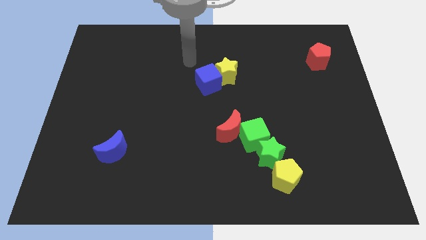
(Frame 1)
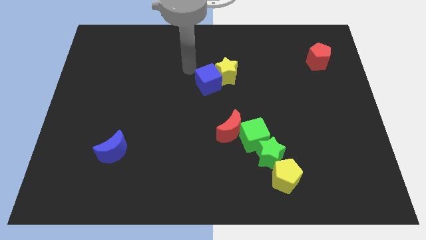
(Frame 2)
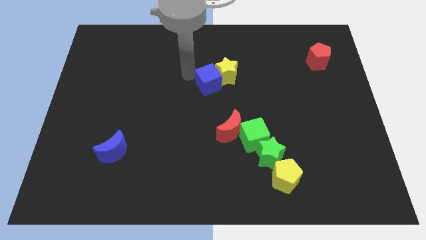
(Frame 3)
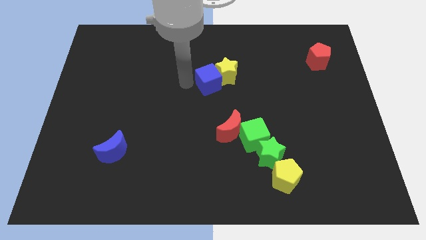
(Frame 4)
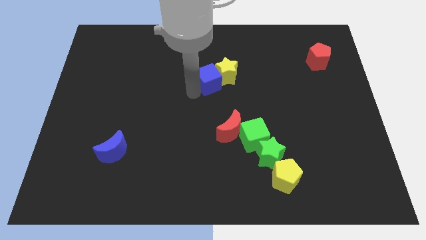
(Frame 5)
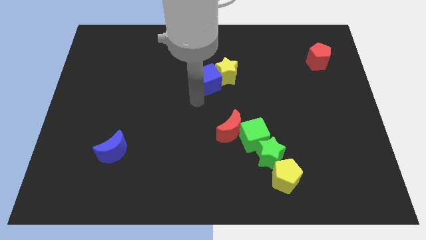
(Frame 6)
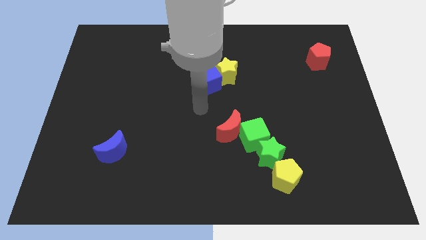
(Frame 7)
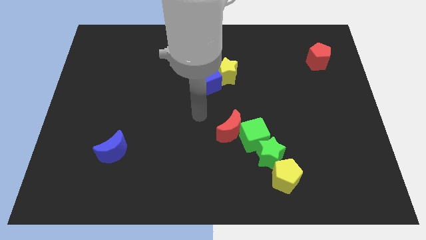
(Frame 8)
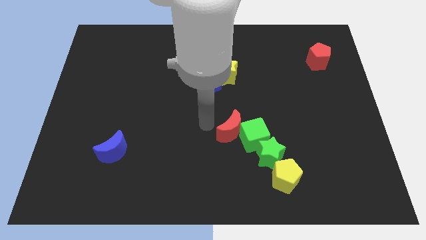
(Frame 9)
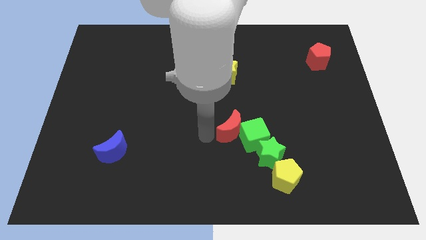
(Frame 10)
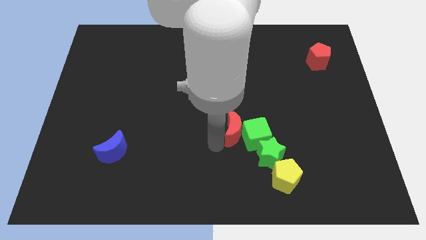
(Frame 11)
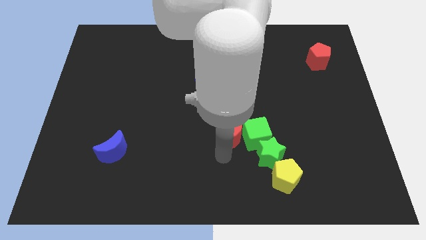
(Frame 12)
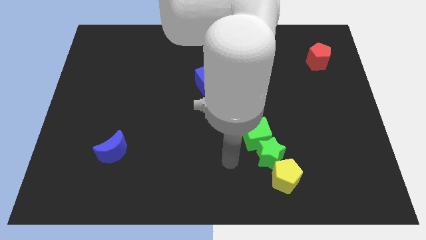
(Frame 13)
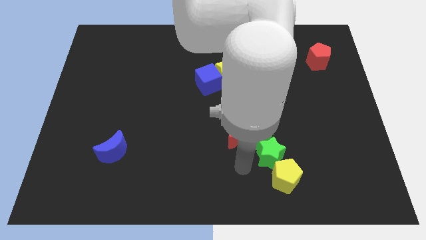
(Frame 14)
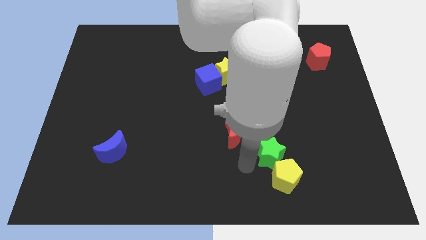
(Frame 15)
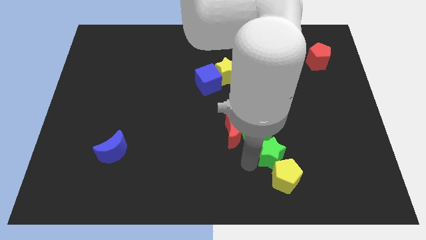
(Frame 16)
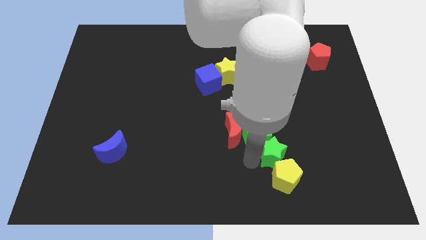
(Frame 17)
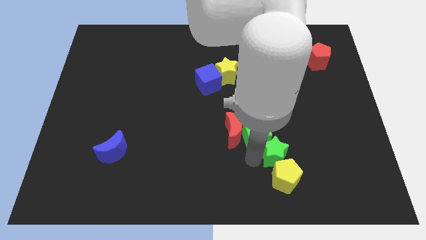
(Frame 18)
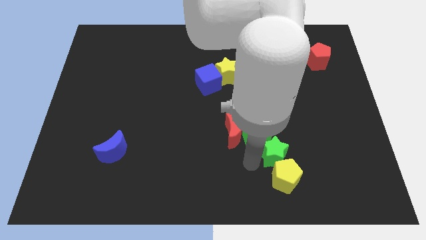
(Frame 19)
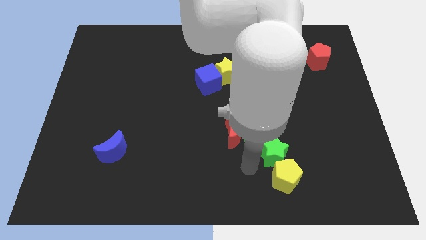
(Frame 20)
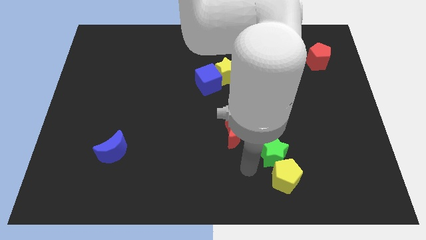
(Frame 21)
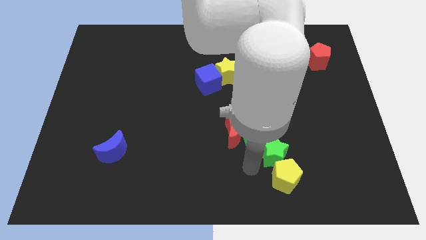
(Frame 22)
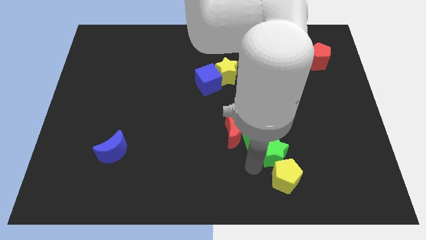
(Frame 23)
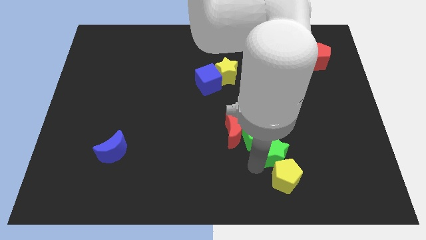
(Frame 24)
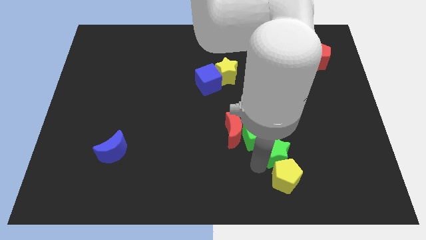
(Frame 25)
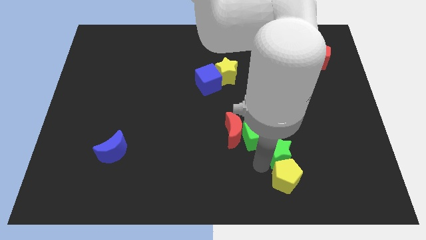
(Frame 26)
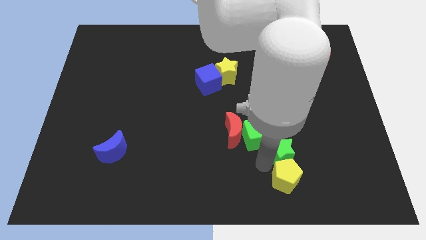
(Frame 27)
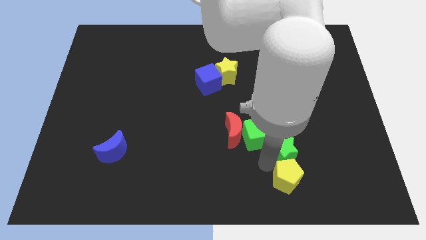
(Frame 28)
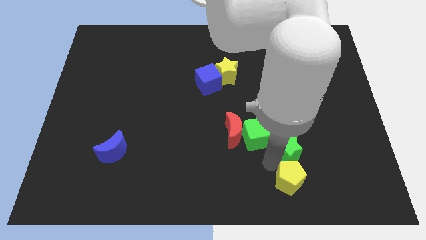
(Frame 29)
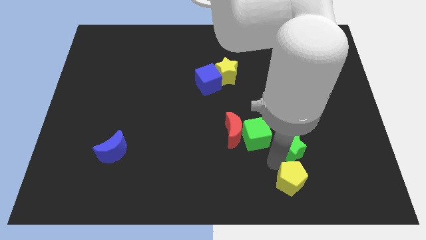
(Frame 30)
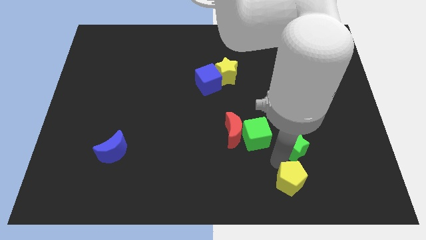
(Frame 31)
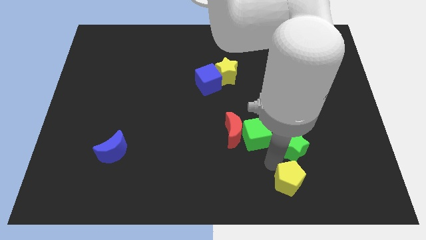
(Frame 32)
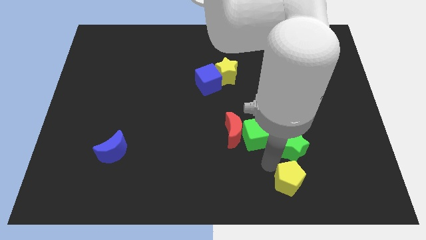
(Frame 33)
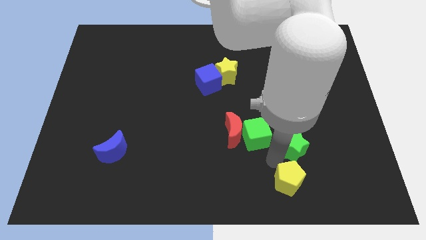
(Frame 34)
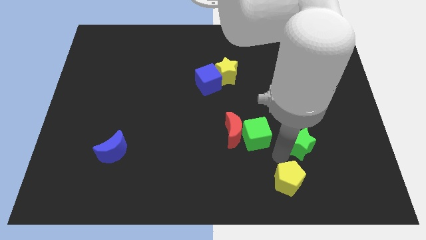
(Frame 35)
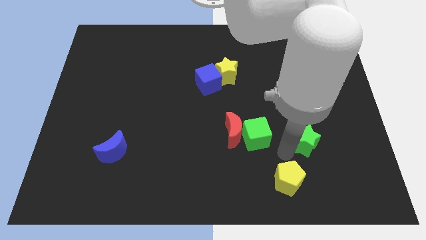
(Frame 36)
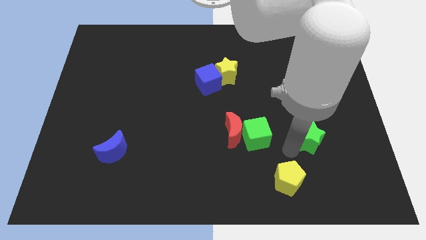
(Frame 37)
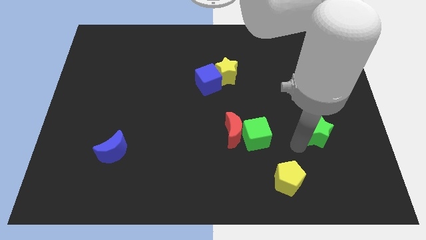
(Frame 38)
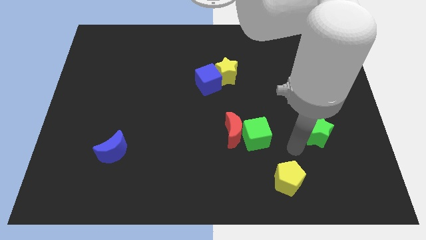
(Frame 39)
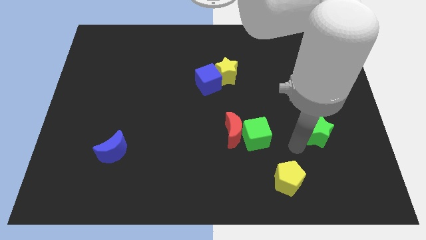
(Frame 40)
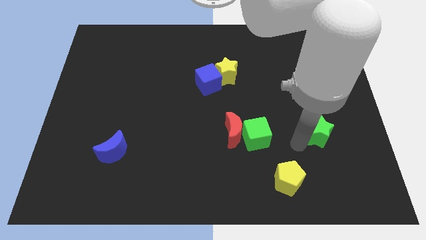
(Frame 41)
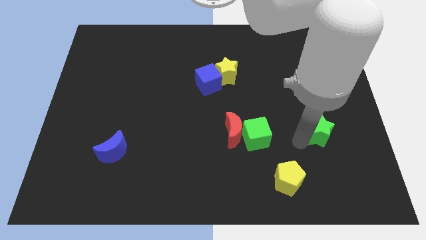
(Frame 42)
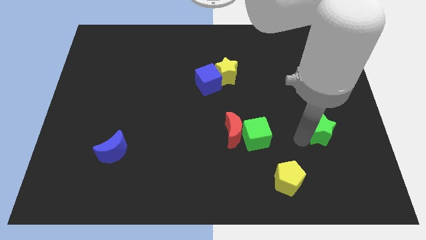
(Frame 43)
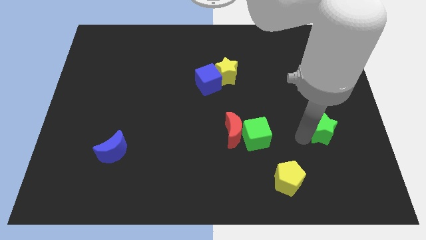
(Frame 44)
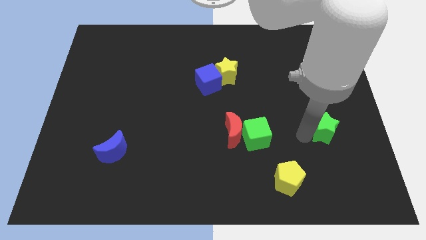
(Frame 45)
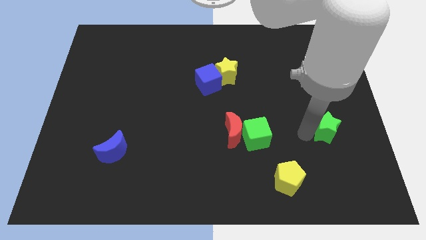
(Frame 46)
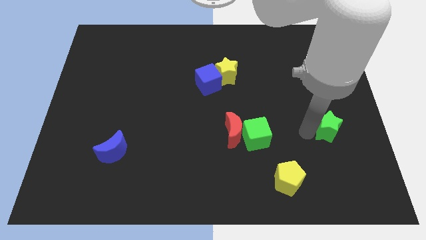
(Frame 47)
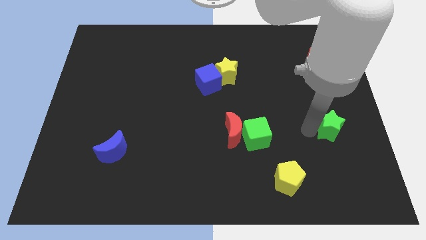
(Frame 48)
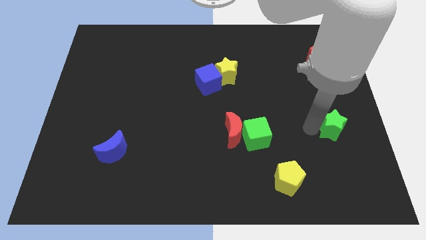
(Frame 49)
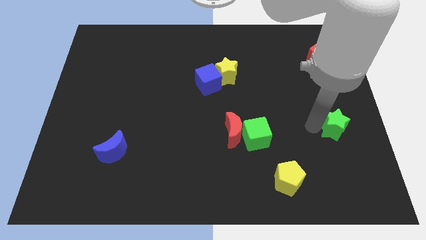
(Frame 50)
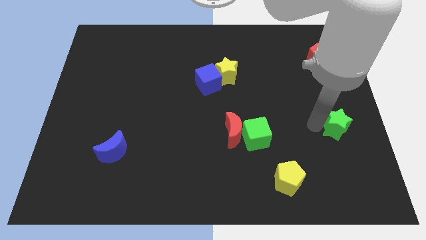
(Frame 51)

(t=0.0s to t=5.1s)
move the green star to the center right

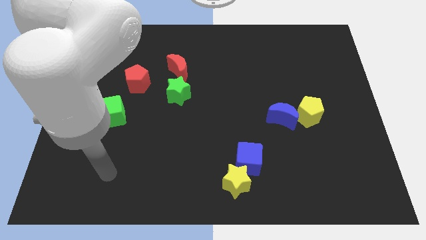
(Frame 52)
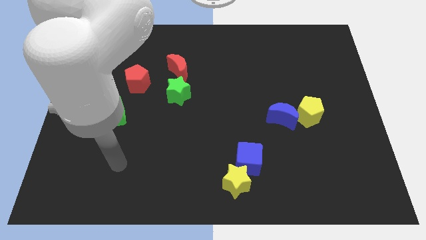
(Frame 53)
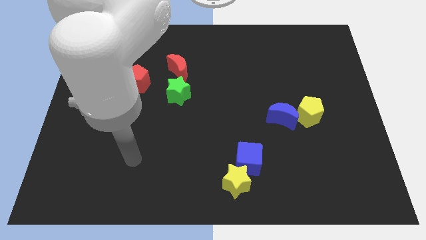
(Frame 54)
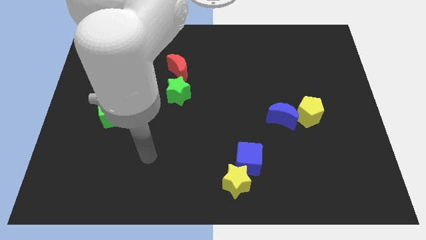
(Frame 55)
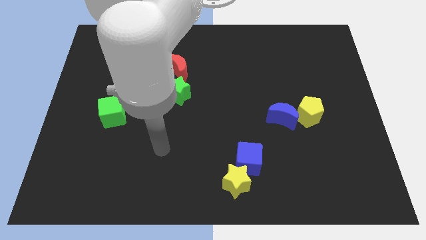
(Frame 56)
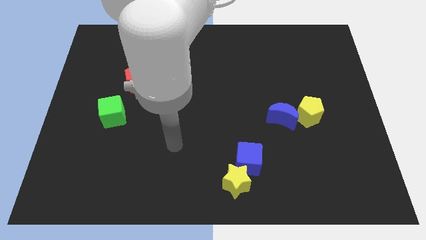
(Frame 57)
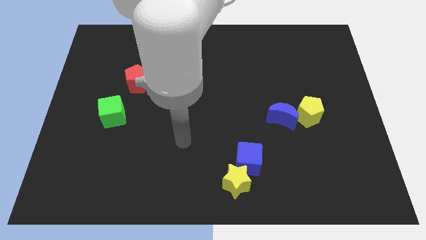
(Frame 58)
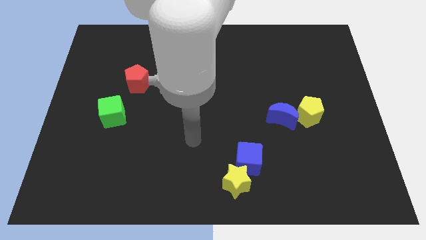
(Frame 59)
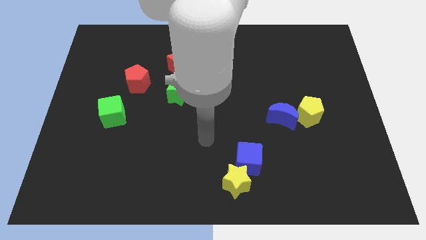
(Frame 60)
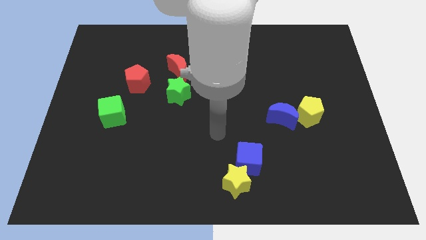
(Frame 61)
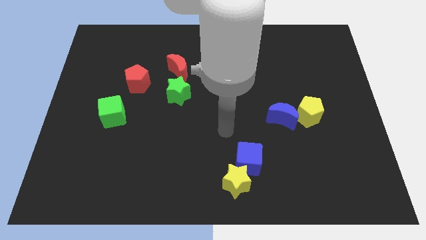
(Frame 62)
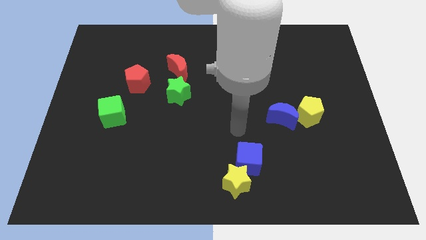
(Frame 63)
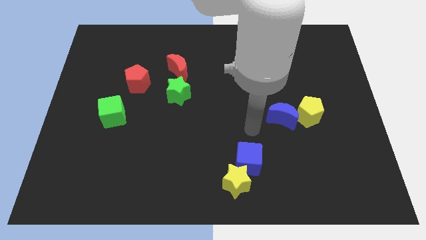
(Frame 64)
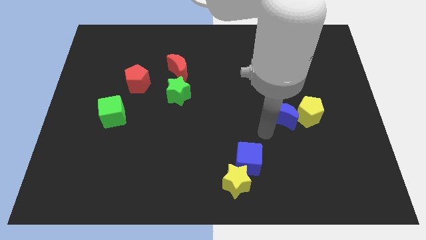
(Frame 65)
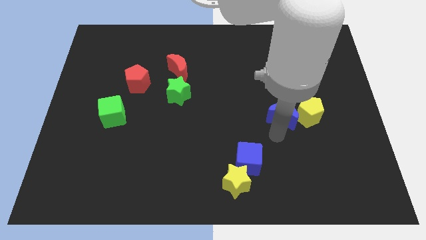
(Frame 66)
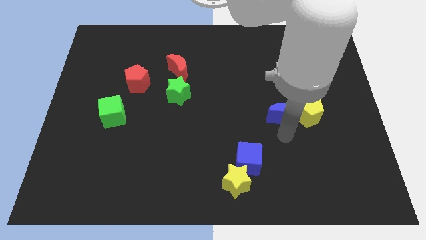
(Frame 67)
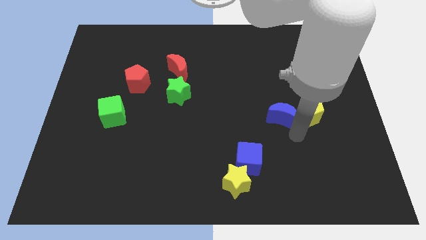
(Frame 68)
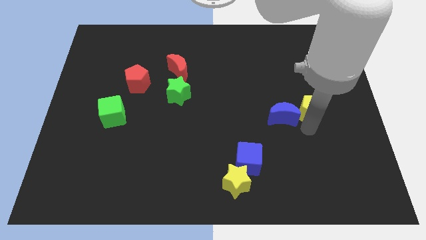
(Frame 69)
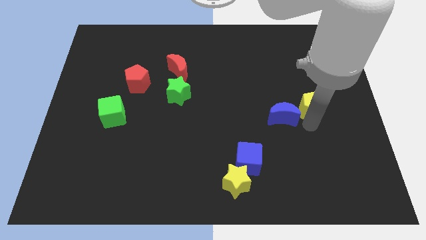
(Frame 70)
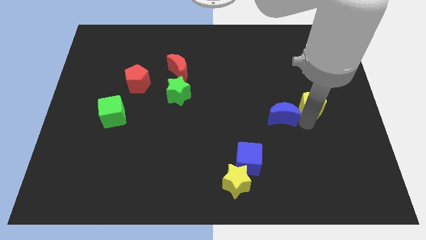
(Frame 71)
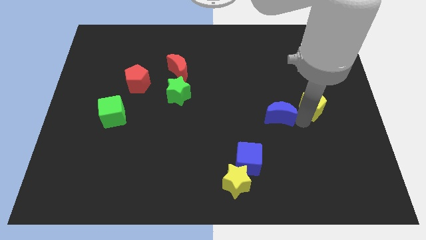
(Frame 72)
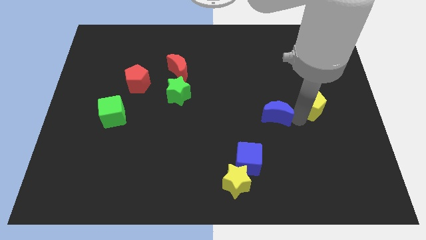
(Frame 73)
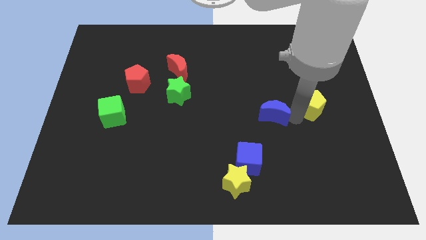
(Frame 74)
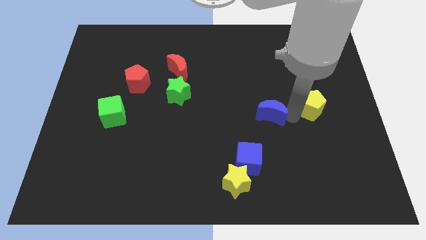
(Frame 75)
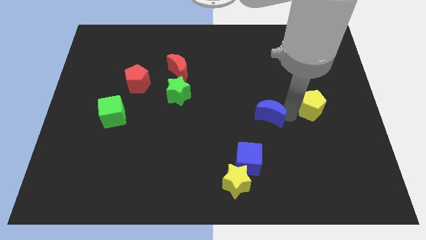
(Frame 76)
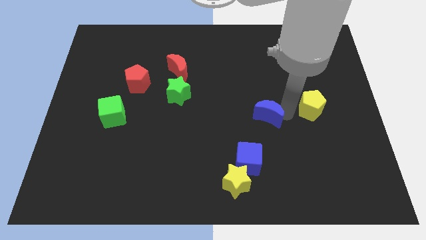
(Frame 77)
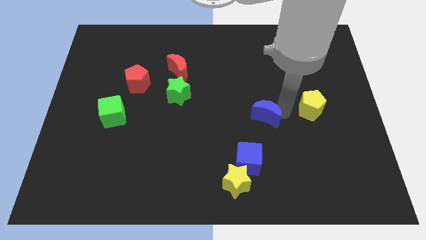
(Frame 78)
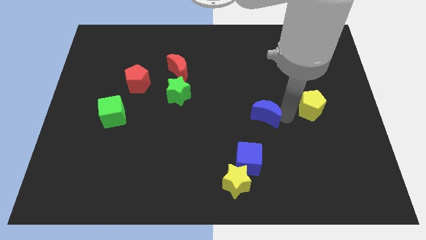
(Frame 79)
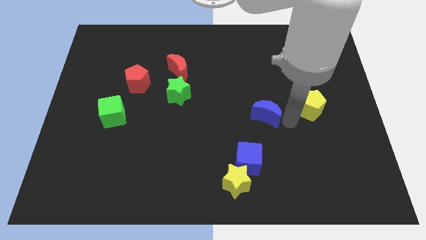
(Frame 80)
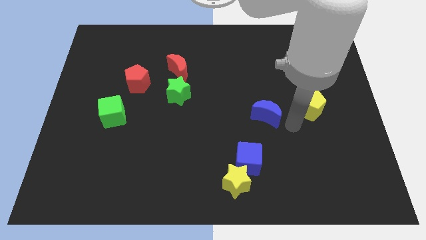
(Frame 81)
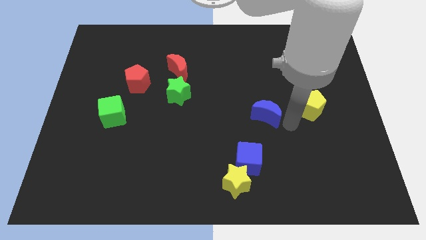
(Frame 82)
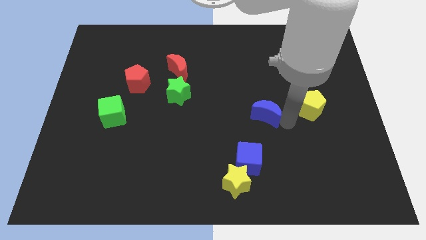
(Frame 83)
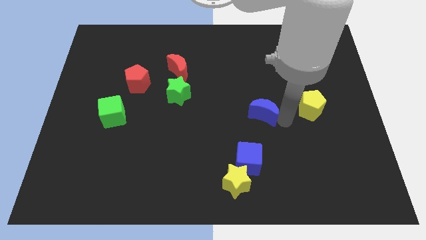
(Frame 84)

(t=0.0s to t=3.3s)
move the blue moon to the center of the board
